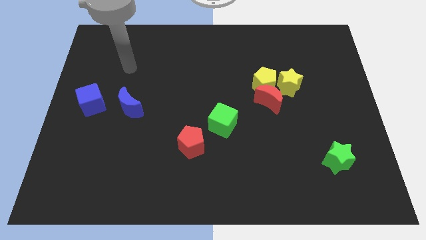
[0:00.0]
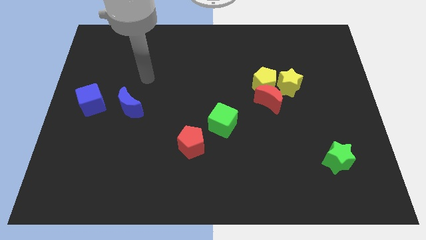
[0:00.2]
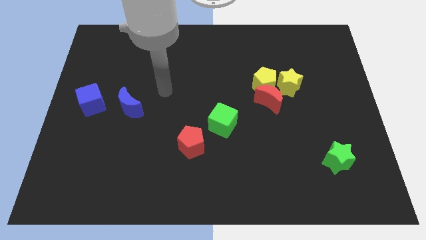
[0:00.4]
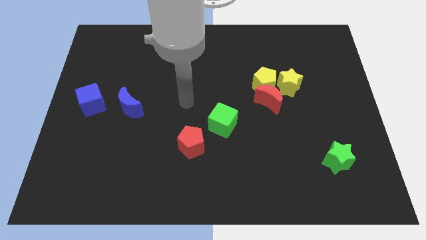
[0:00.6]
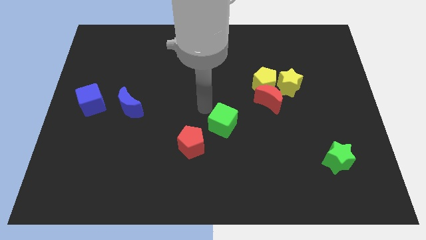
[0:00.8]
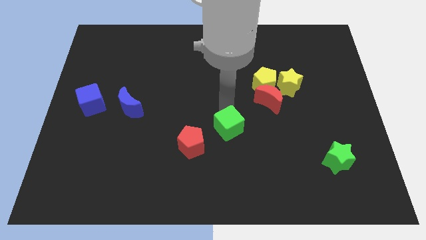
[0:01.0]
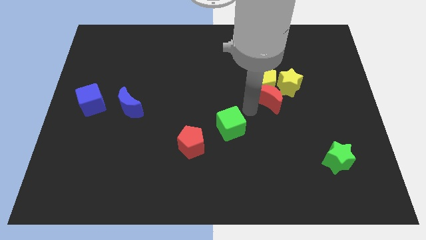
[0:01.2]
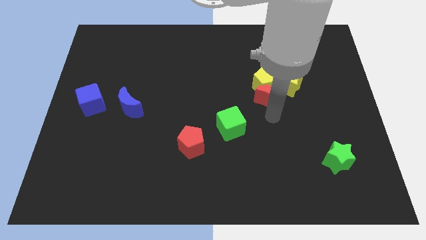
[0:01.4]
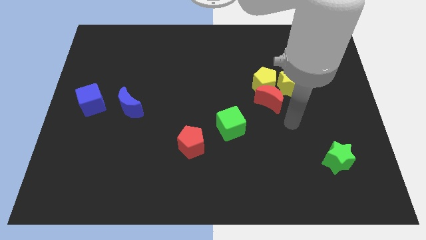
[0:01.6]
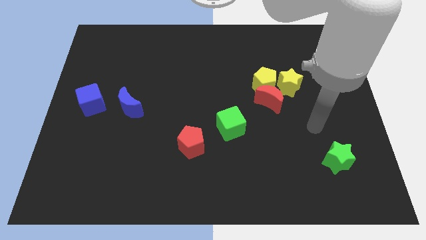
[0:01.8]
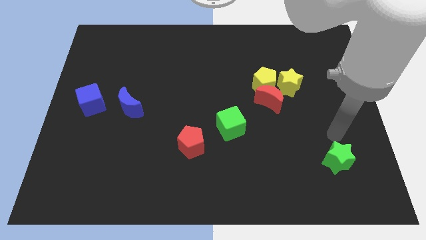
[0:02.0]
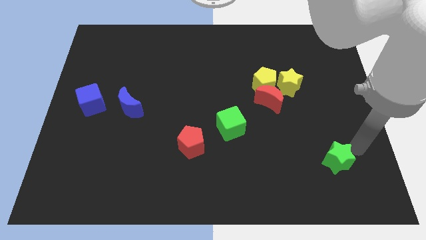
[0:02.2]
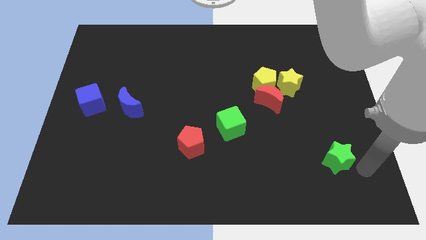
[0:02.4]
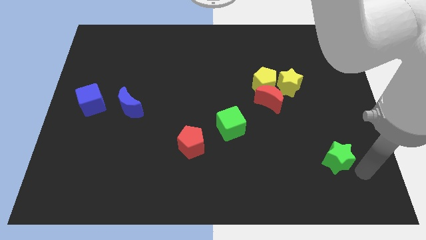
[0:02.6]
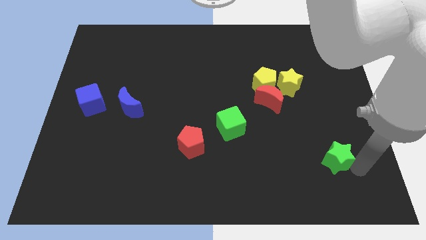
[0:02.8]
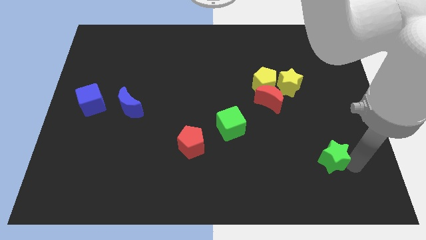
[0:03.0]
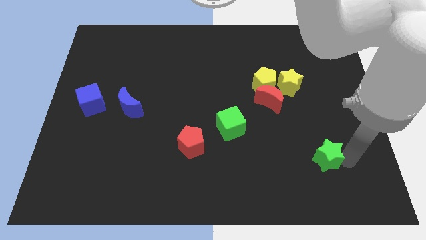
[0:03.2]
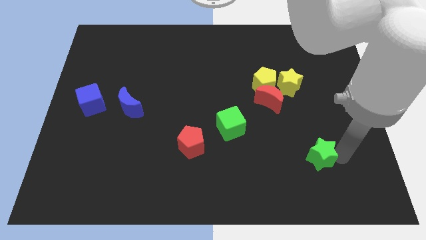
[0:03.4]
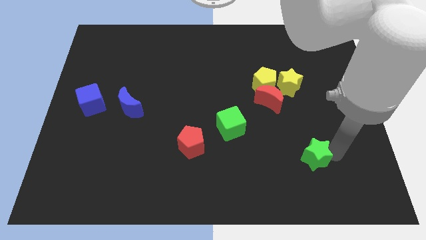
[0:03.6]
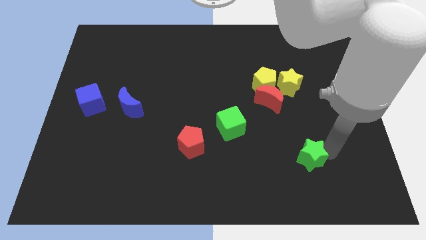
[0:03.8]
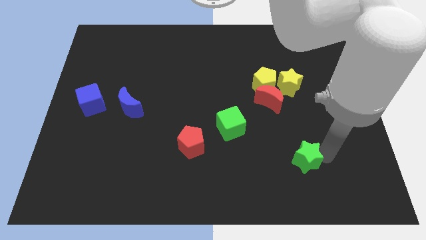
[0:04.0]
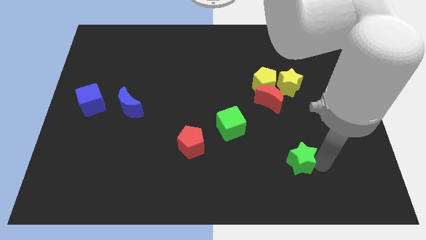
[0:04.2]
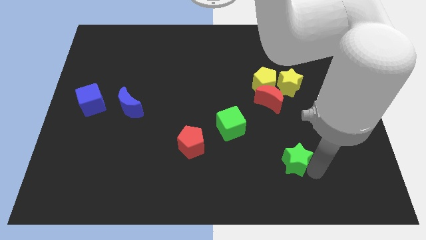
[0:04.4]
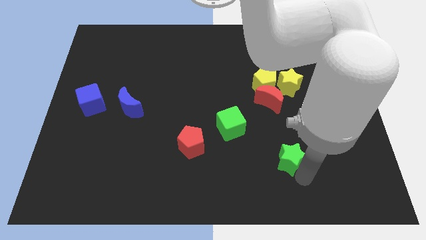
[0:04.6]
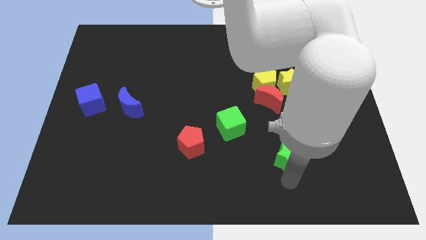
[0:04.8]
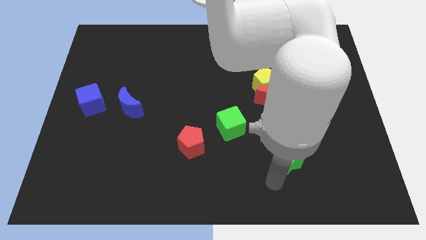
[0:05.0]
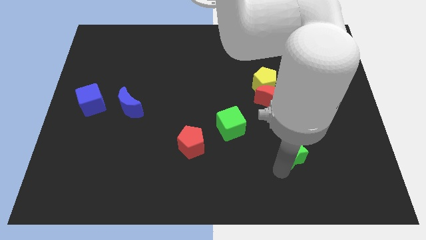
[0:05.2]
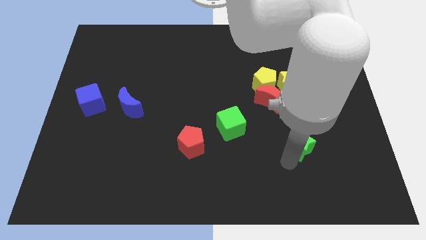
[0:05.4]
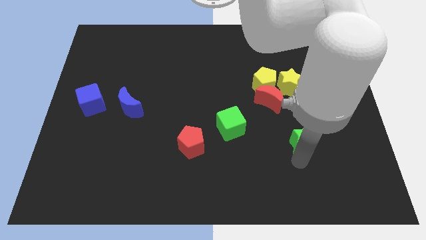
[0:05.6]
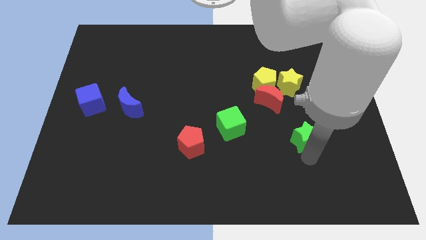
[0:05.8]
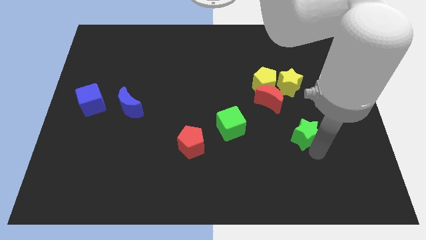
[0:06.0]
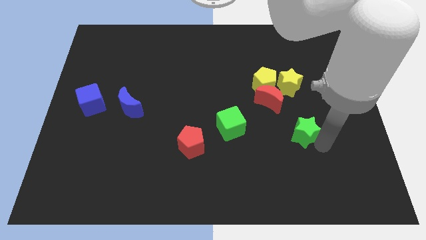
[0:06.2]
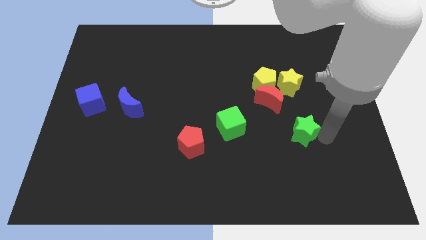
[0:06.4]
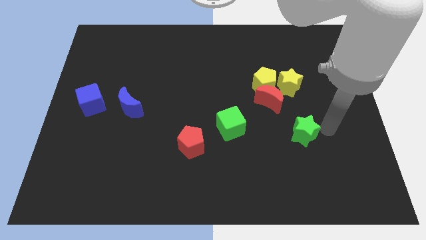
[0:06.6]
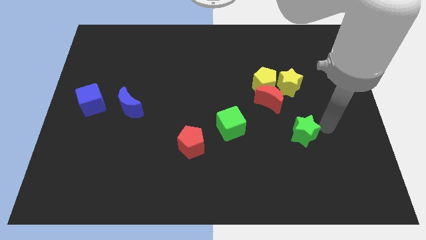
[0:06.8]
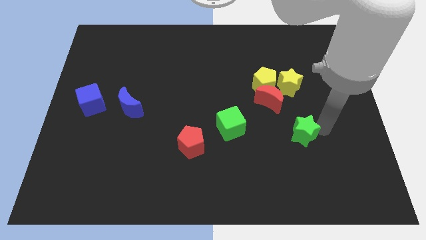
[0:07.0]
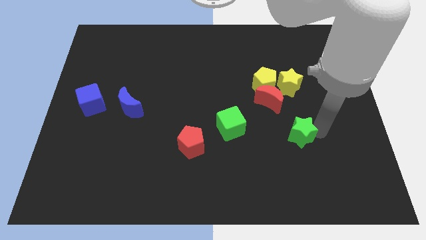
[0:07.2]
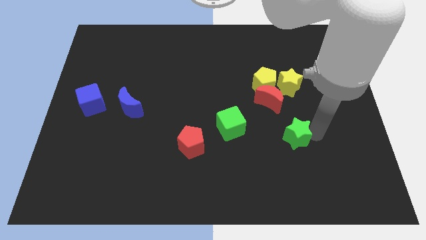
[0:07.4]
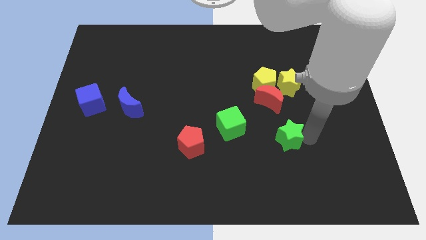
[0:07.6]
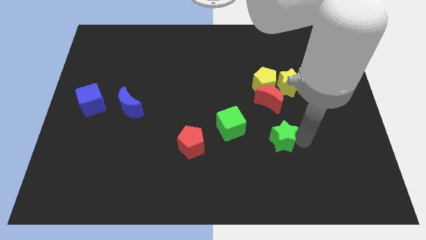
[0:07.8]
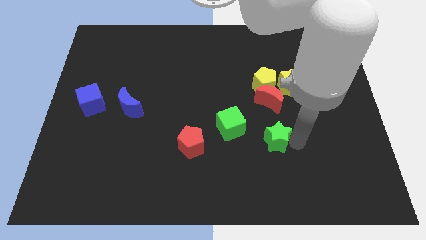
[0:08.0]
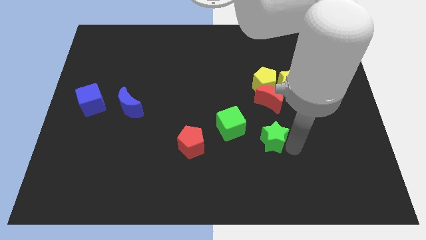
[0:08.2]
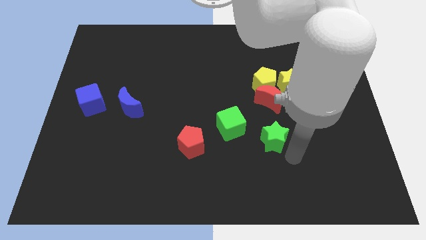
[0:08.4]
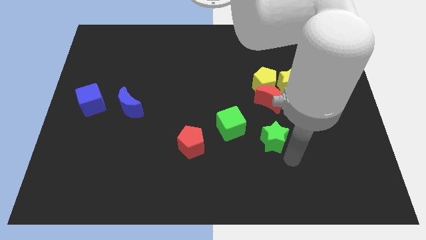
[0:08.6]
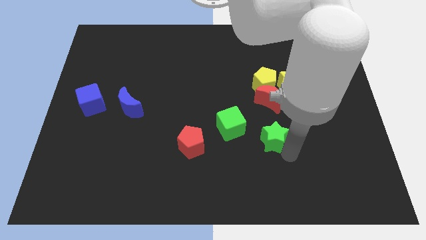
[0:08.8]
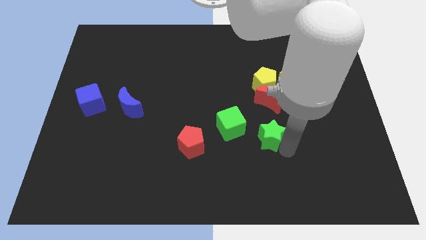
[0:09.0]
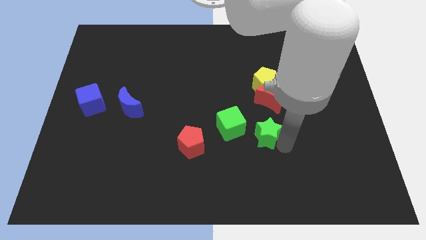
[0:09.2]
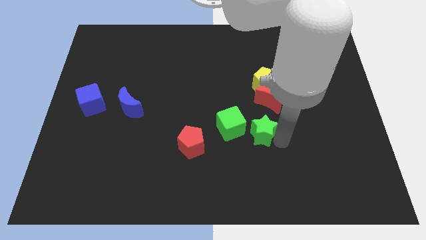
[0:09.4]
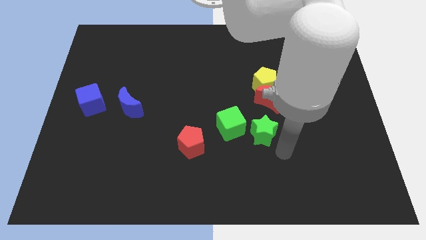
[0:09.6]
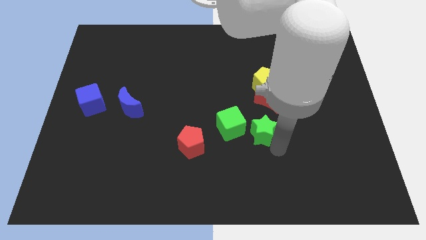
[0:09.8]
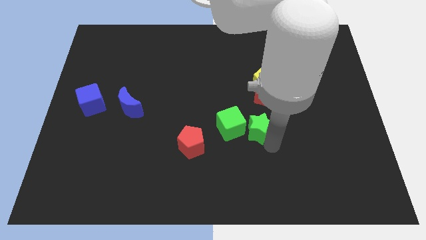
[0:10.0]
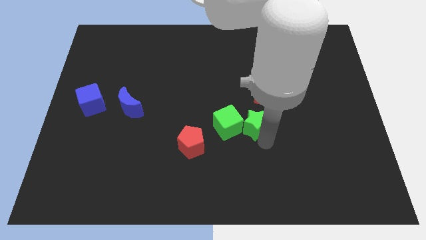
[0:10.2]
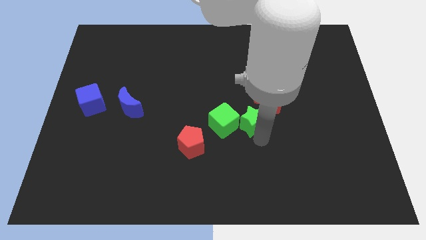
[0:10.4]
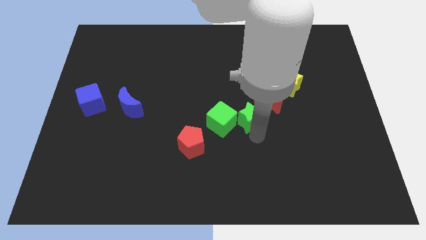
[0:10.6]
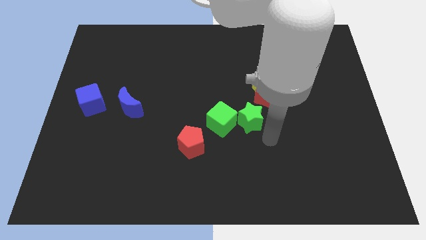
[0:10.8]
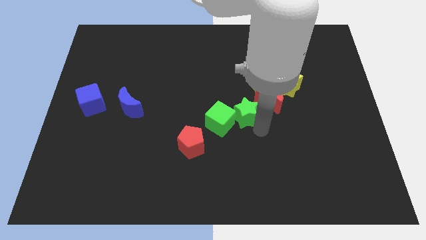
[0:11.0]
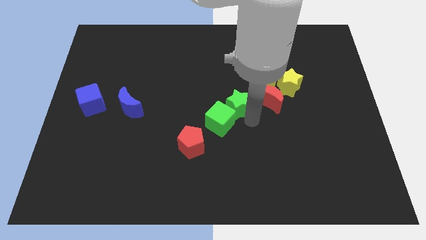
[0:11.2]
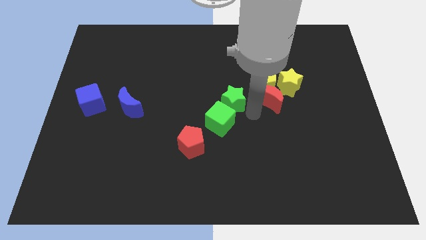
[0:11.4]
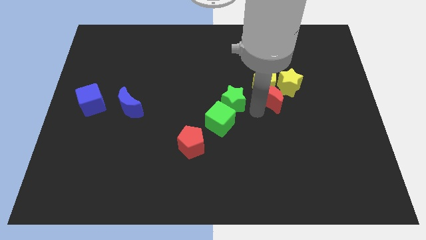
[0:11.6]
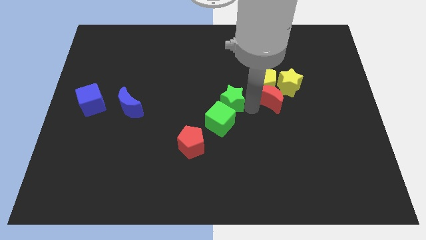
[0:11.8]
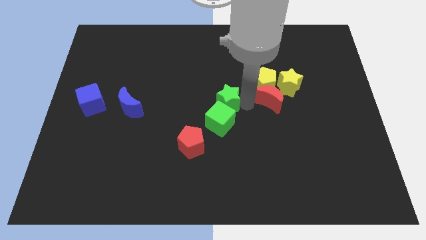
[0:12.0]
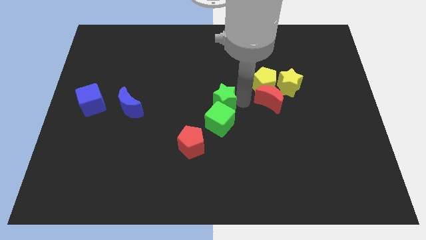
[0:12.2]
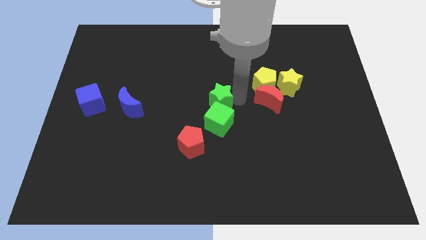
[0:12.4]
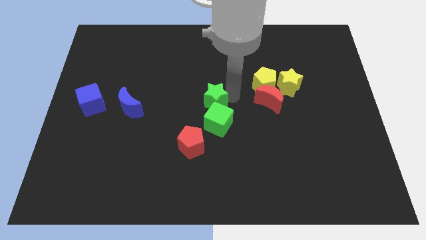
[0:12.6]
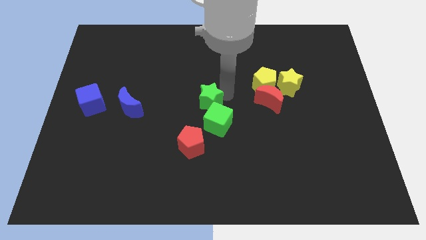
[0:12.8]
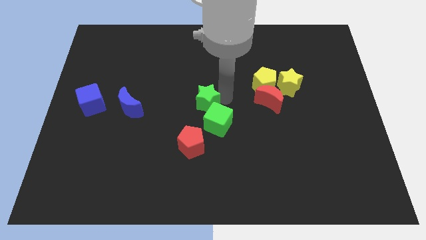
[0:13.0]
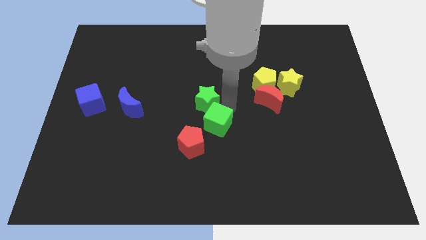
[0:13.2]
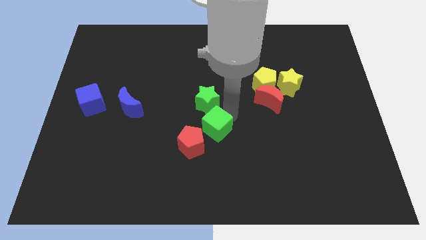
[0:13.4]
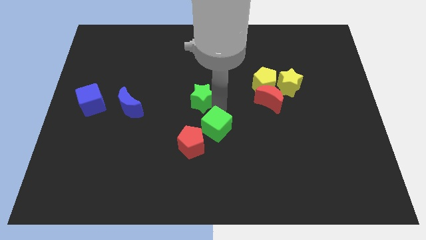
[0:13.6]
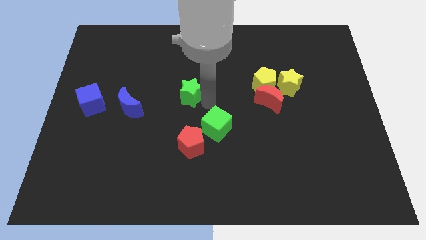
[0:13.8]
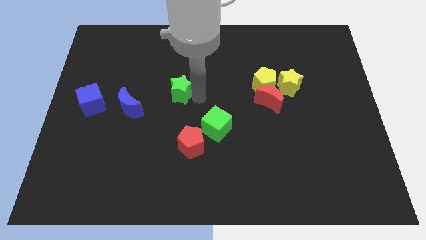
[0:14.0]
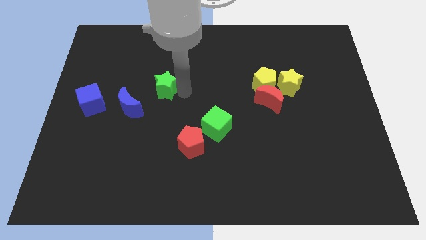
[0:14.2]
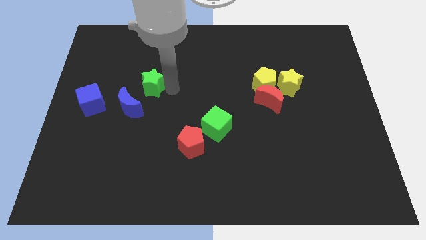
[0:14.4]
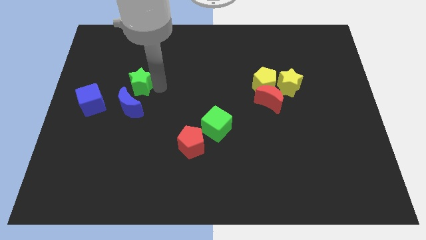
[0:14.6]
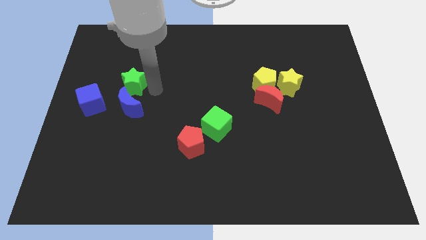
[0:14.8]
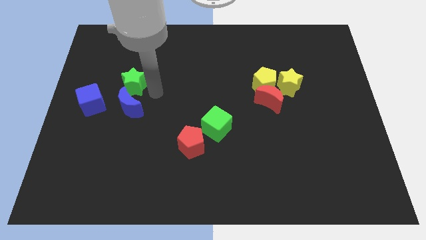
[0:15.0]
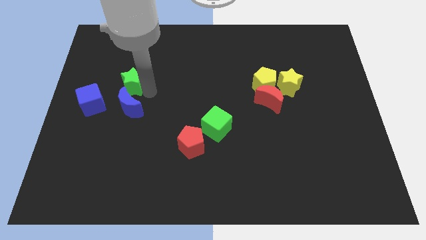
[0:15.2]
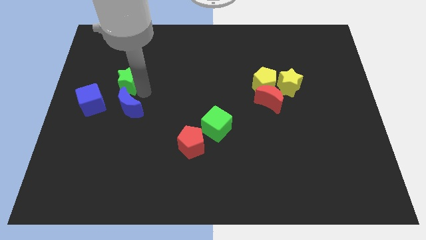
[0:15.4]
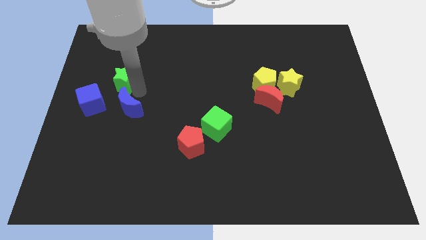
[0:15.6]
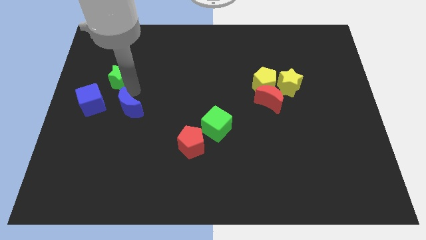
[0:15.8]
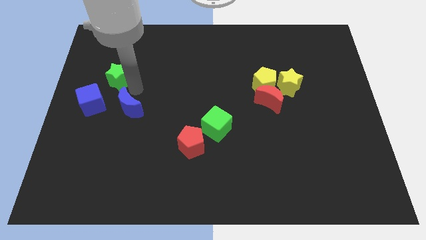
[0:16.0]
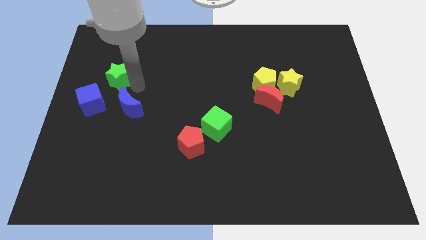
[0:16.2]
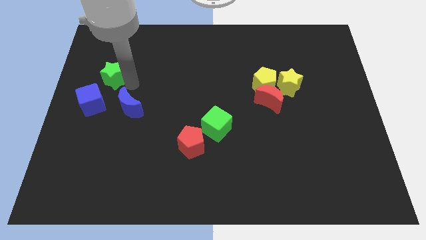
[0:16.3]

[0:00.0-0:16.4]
move the green star to the top of the blue cube
